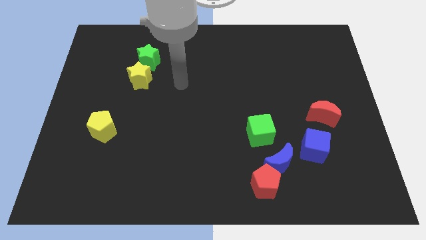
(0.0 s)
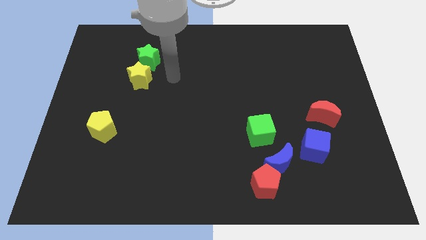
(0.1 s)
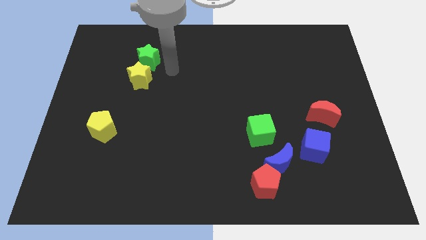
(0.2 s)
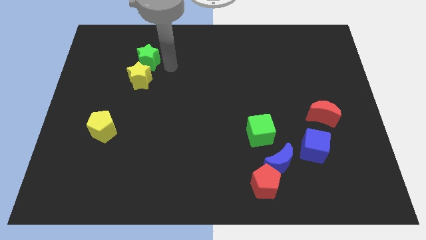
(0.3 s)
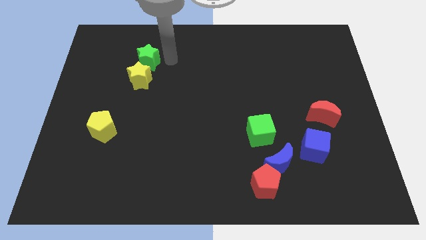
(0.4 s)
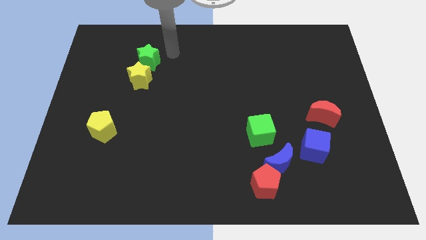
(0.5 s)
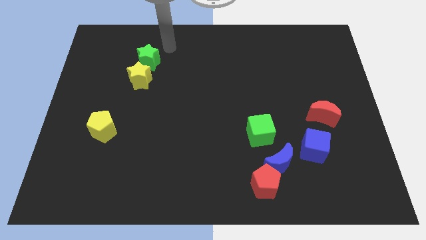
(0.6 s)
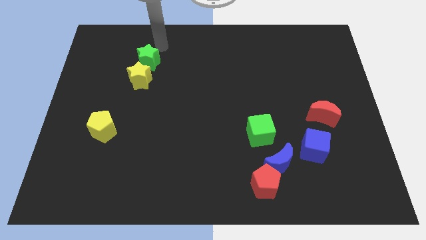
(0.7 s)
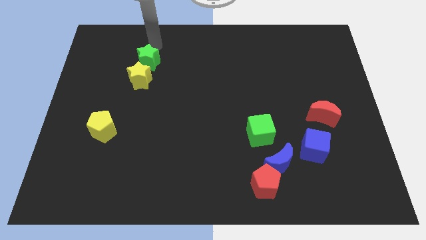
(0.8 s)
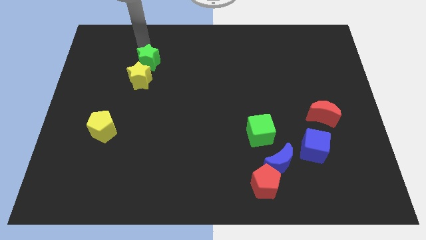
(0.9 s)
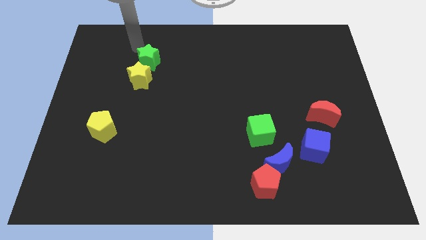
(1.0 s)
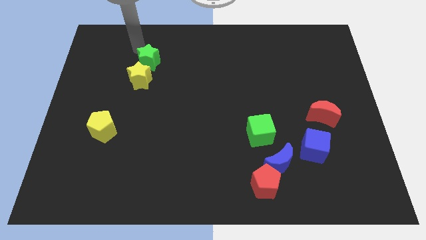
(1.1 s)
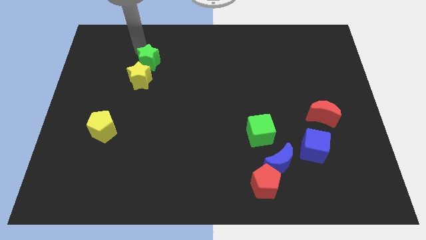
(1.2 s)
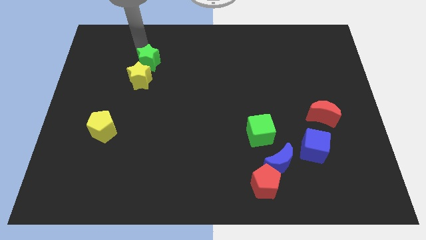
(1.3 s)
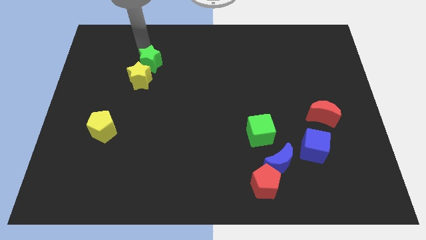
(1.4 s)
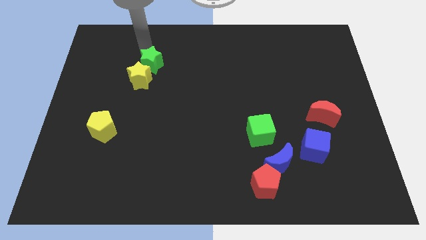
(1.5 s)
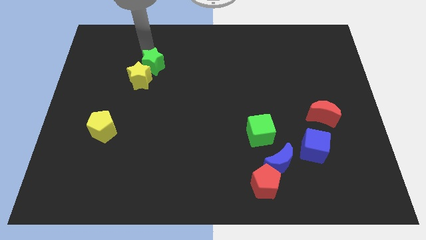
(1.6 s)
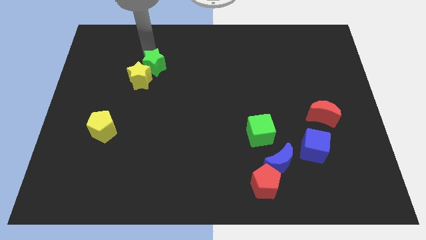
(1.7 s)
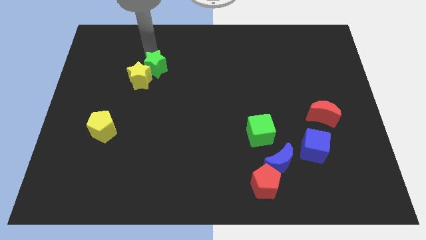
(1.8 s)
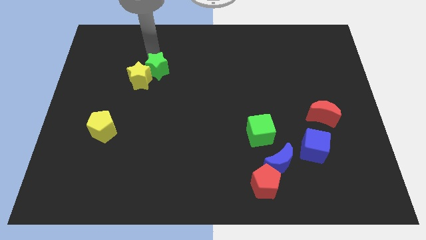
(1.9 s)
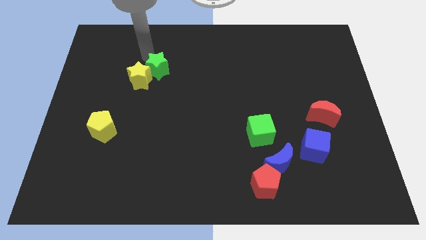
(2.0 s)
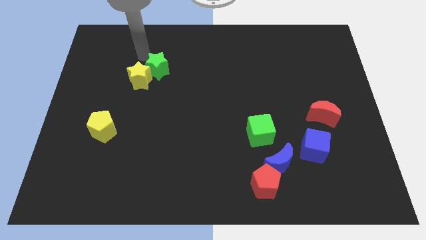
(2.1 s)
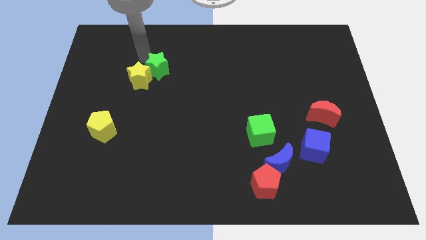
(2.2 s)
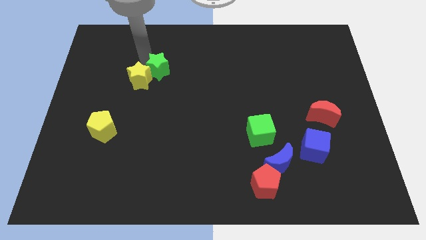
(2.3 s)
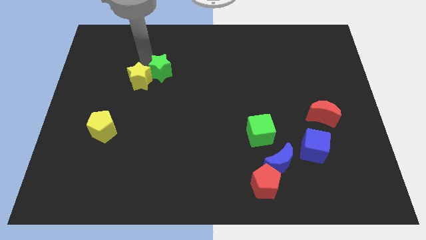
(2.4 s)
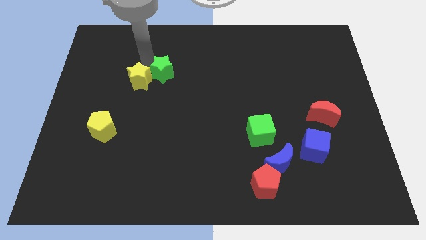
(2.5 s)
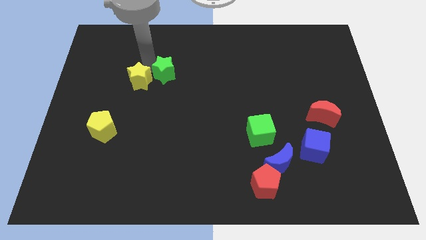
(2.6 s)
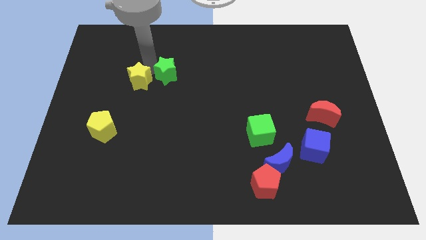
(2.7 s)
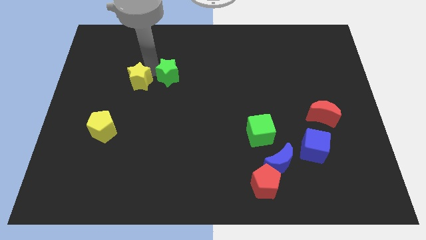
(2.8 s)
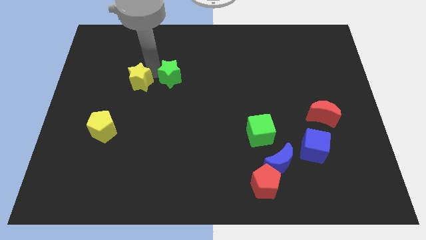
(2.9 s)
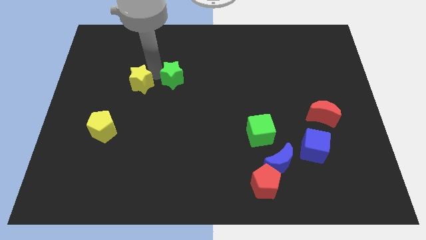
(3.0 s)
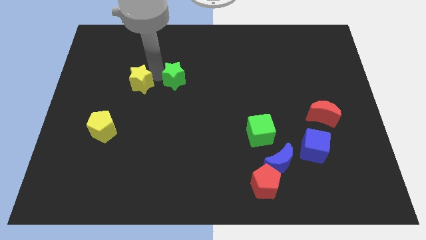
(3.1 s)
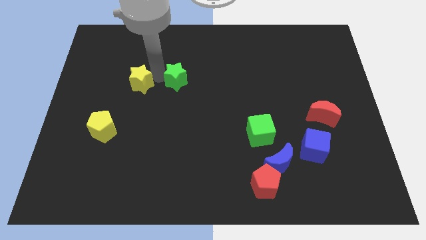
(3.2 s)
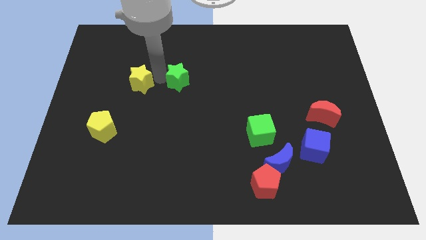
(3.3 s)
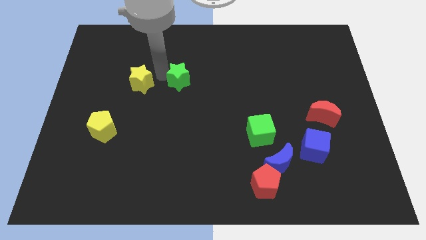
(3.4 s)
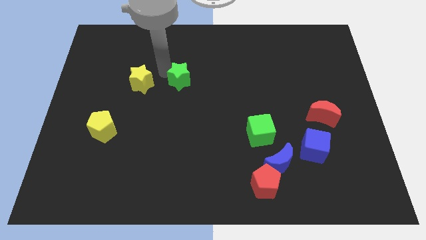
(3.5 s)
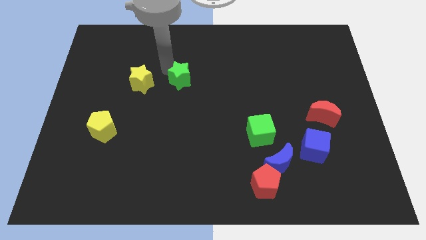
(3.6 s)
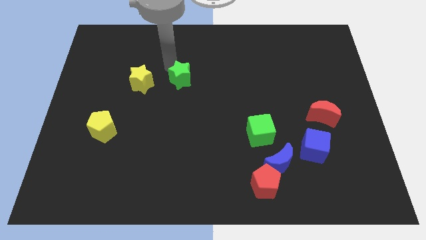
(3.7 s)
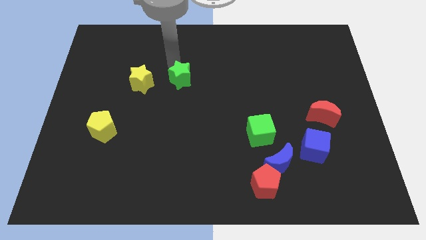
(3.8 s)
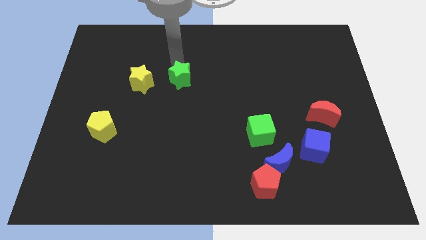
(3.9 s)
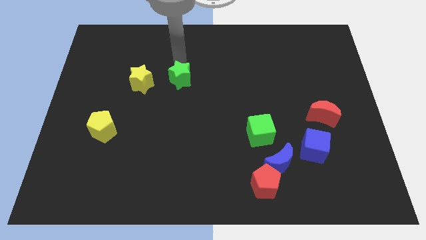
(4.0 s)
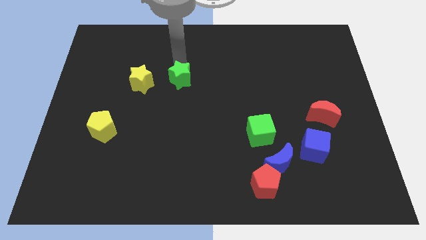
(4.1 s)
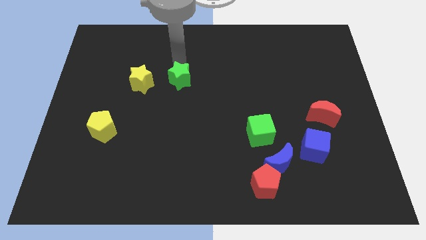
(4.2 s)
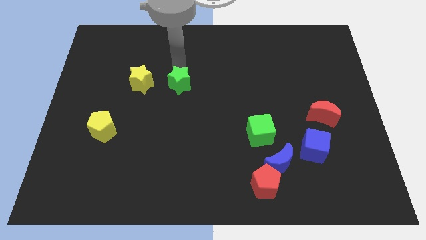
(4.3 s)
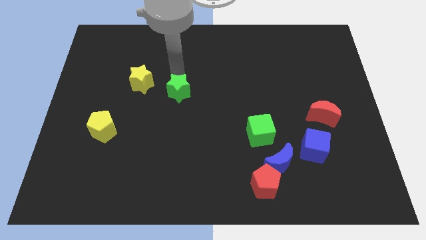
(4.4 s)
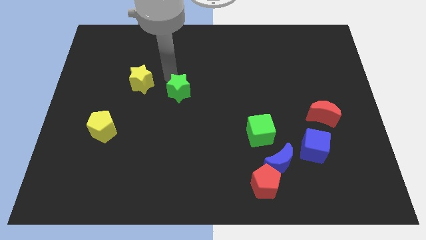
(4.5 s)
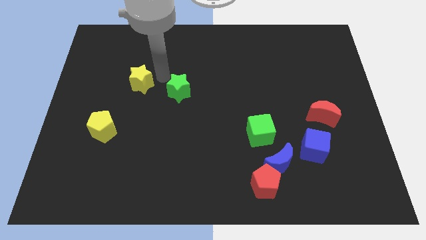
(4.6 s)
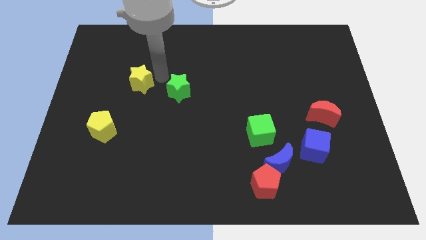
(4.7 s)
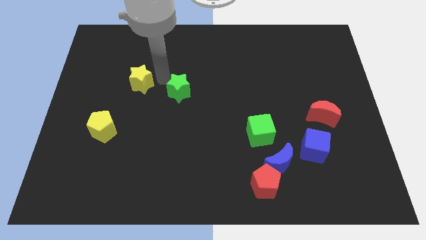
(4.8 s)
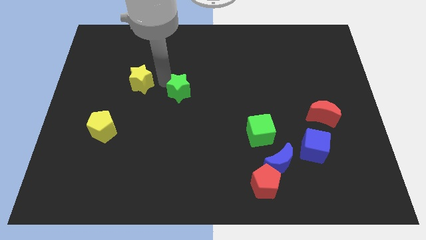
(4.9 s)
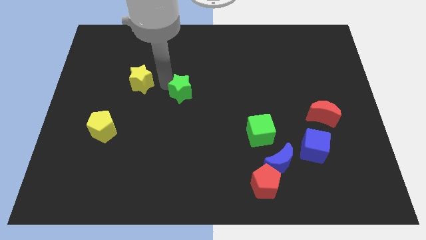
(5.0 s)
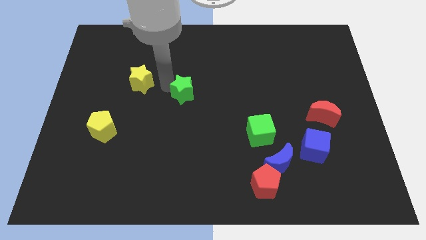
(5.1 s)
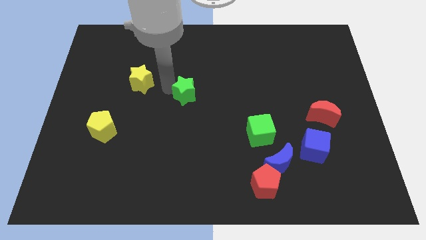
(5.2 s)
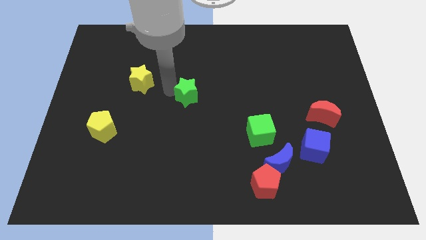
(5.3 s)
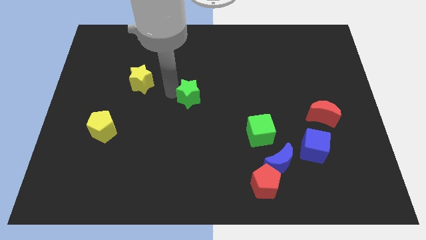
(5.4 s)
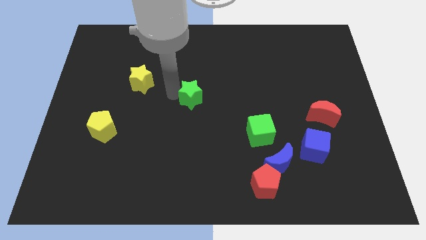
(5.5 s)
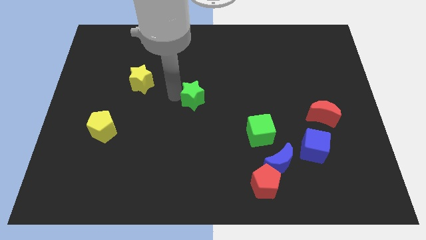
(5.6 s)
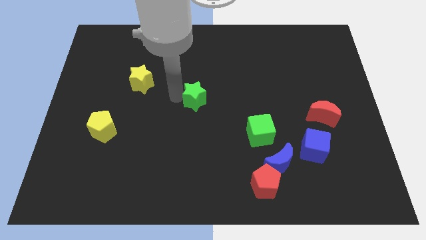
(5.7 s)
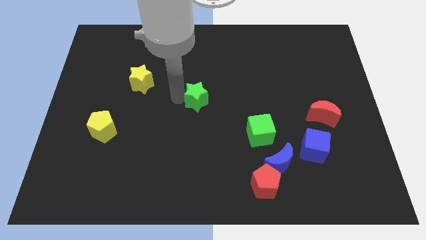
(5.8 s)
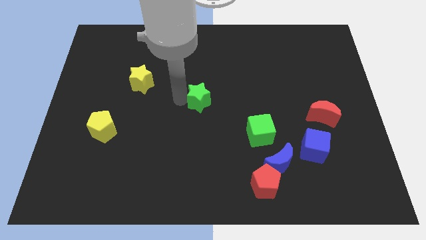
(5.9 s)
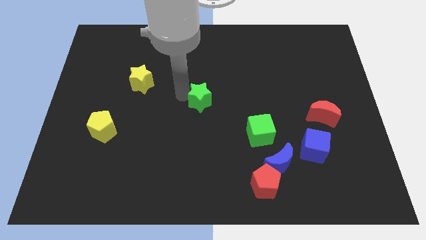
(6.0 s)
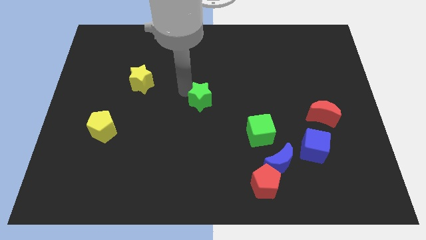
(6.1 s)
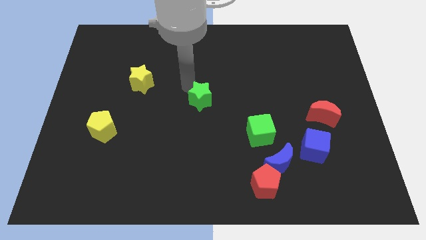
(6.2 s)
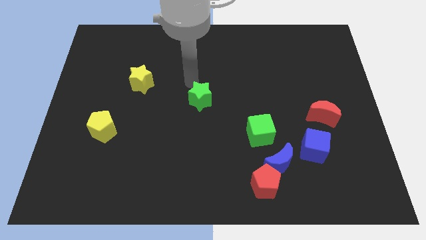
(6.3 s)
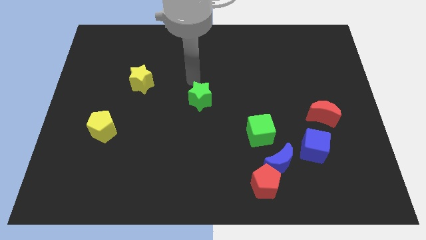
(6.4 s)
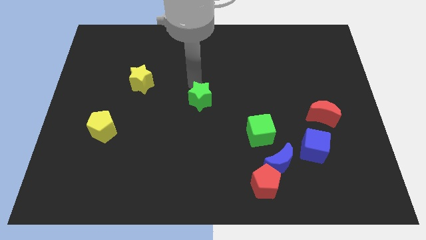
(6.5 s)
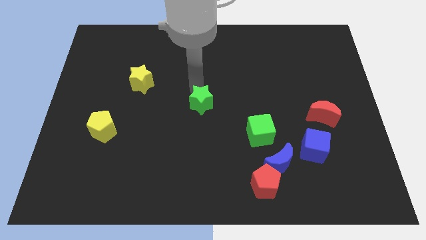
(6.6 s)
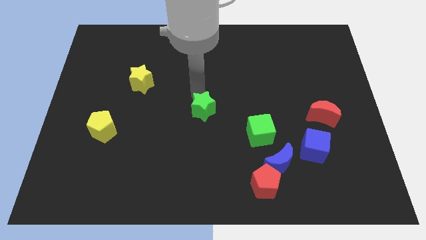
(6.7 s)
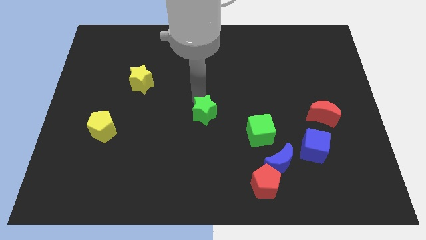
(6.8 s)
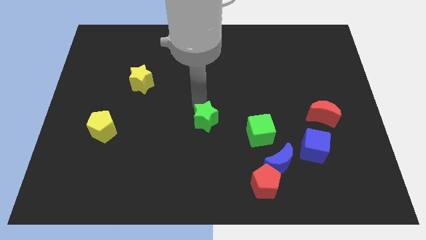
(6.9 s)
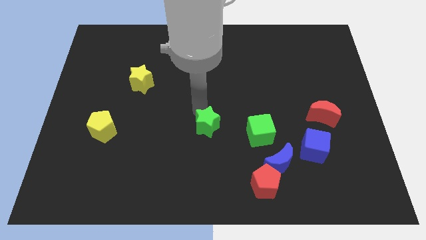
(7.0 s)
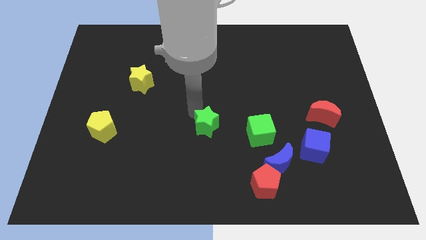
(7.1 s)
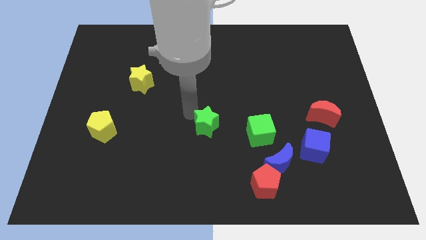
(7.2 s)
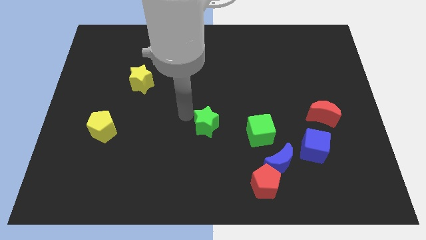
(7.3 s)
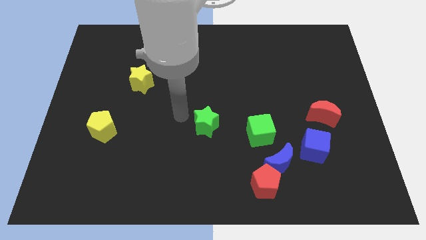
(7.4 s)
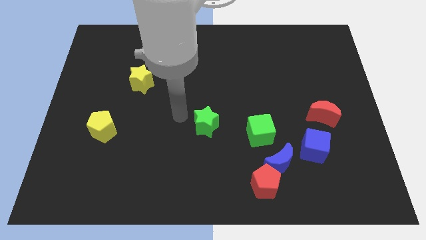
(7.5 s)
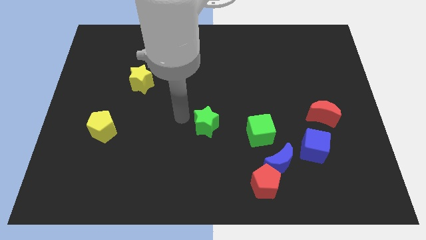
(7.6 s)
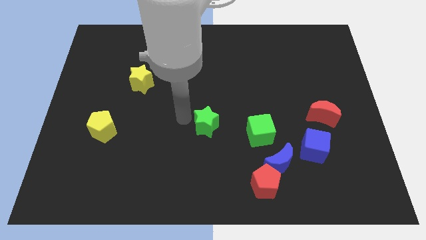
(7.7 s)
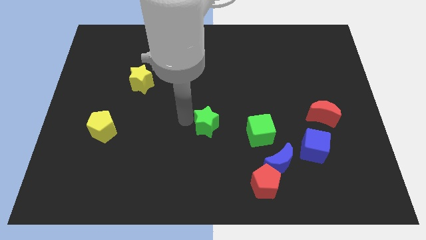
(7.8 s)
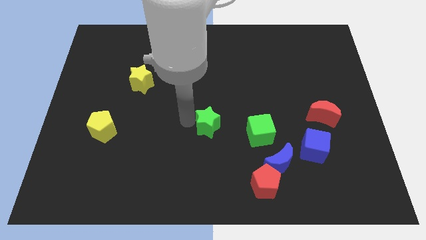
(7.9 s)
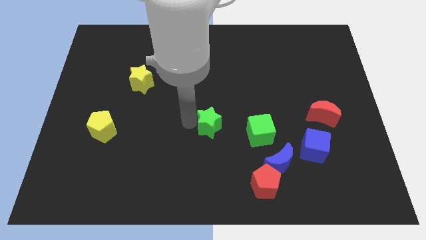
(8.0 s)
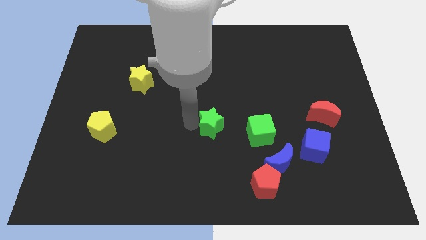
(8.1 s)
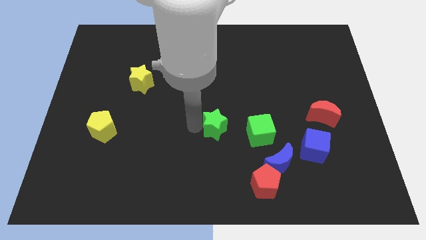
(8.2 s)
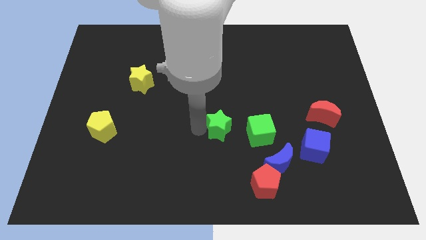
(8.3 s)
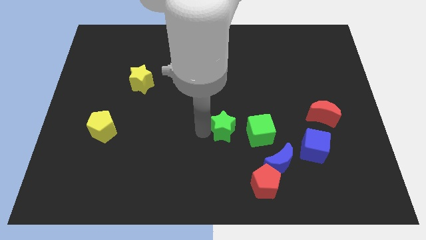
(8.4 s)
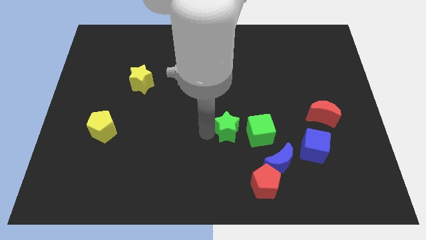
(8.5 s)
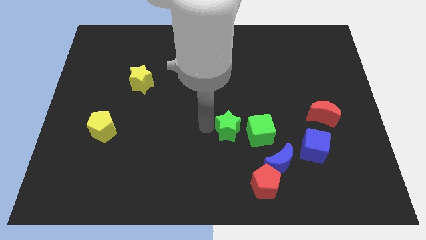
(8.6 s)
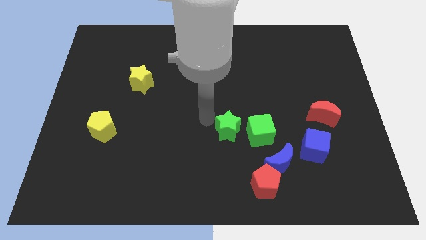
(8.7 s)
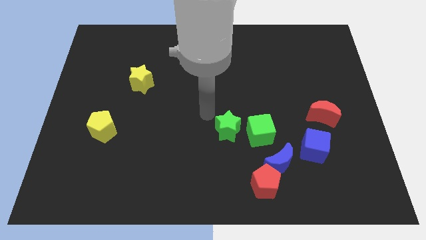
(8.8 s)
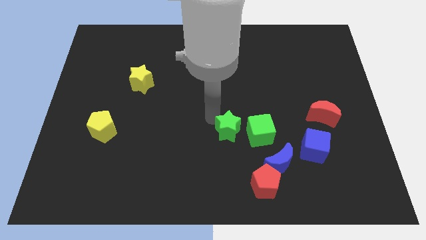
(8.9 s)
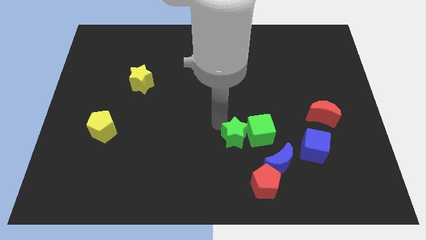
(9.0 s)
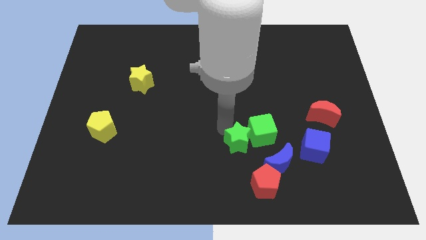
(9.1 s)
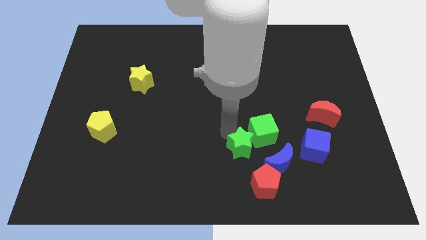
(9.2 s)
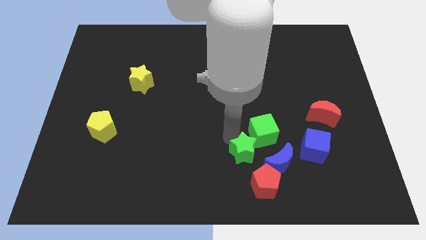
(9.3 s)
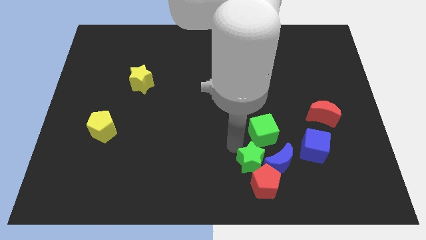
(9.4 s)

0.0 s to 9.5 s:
slide the green star close to the blue moon
